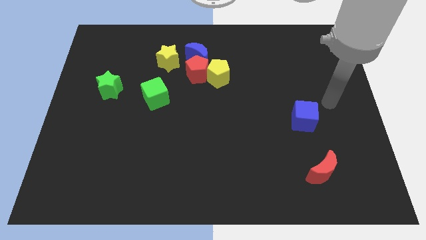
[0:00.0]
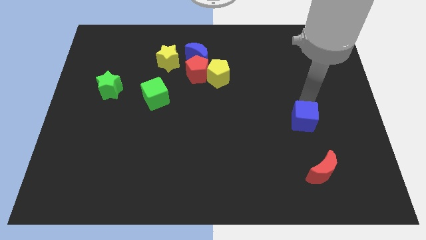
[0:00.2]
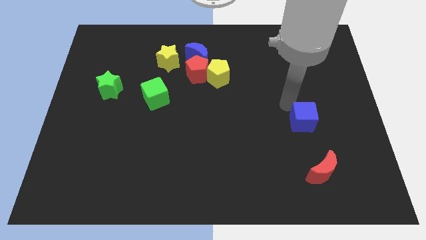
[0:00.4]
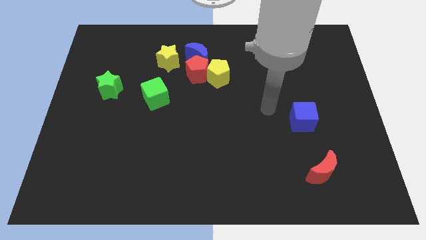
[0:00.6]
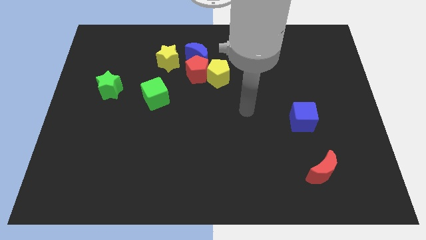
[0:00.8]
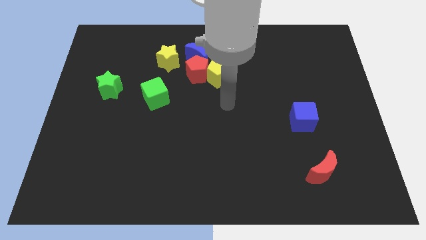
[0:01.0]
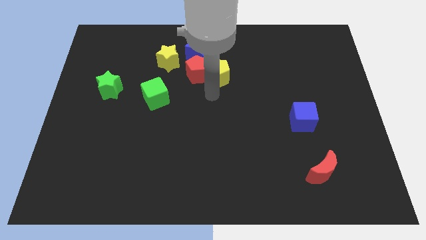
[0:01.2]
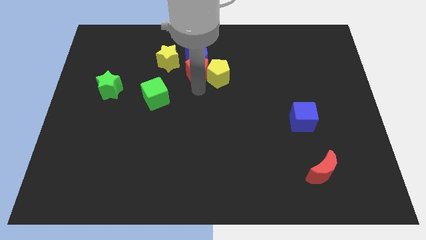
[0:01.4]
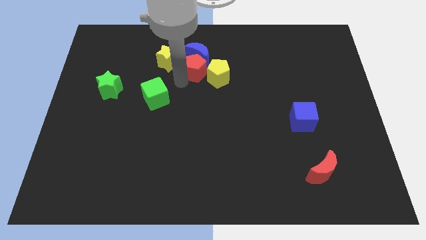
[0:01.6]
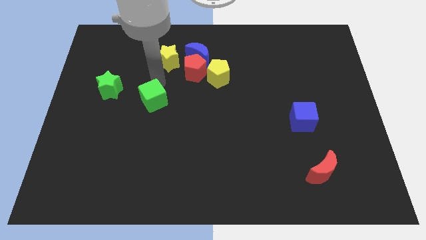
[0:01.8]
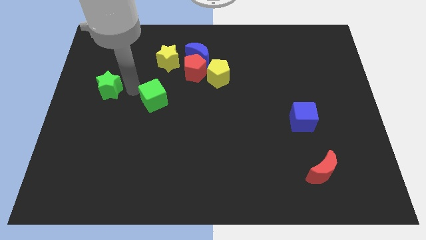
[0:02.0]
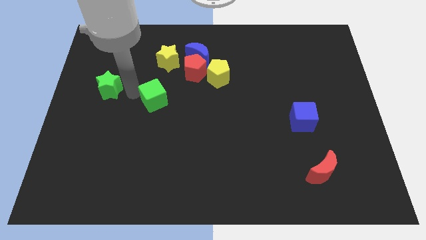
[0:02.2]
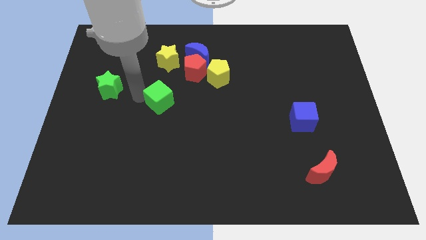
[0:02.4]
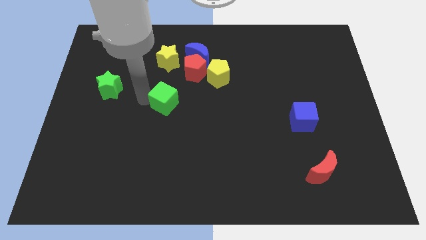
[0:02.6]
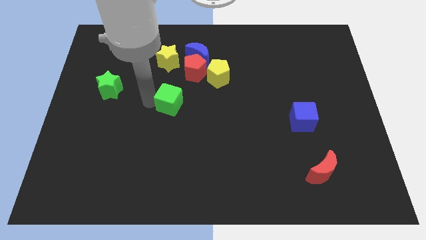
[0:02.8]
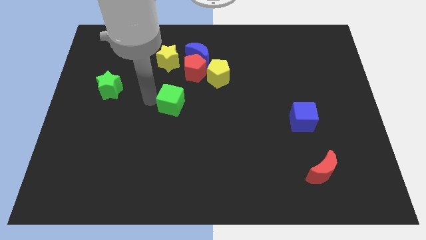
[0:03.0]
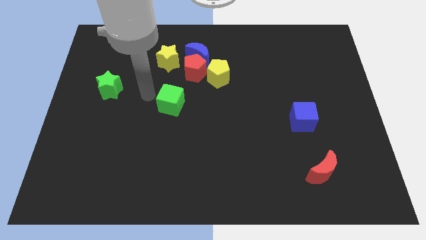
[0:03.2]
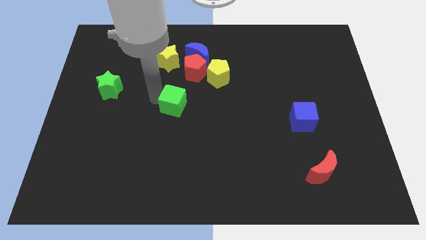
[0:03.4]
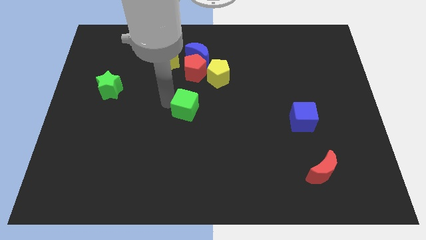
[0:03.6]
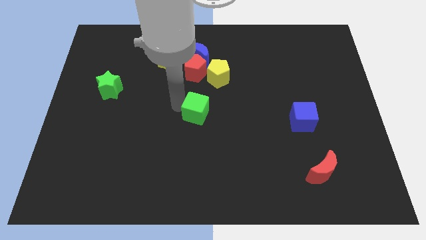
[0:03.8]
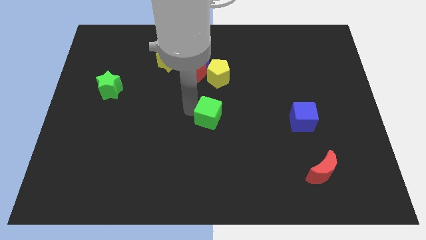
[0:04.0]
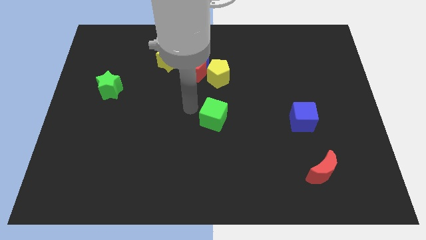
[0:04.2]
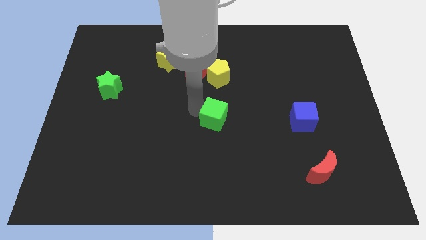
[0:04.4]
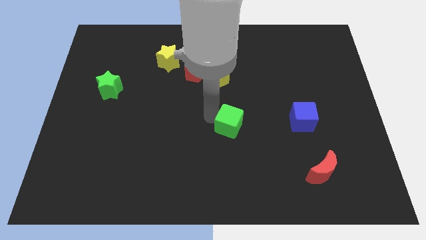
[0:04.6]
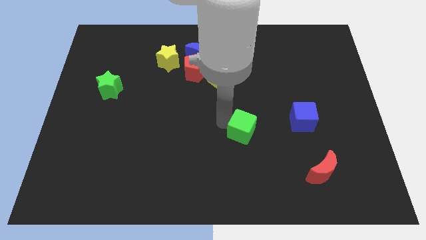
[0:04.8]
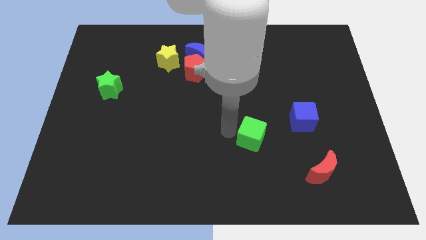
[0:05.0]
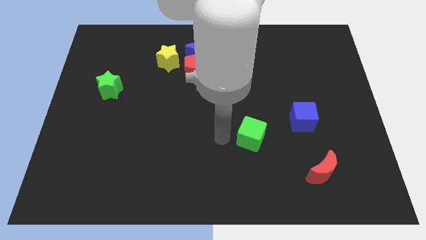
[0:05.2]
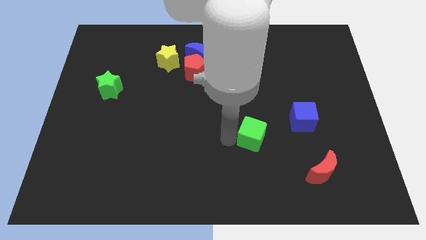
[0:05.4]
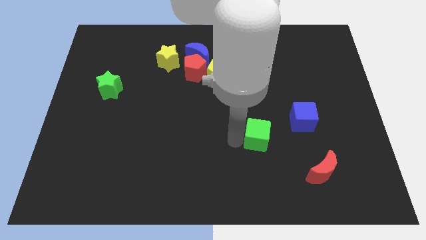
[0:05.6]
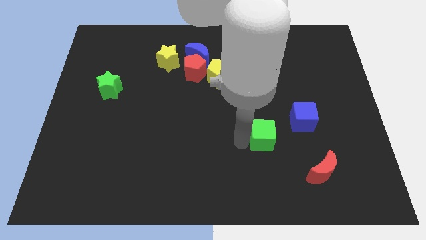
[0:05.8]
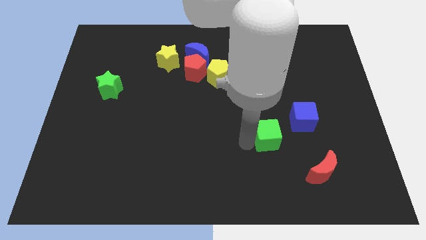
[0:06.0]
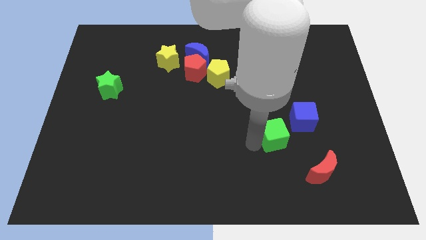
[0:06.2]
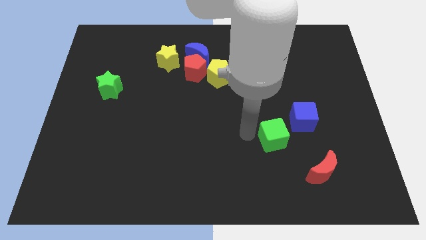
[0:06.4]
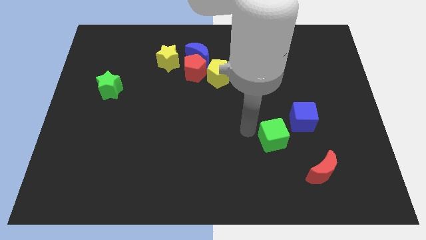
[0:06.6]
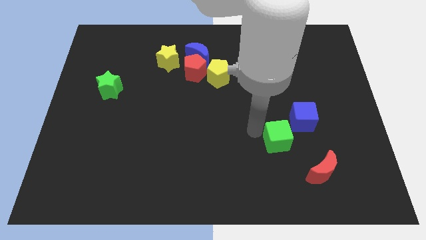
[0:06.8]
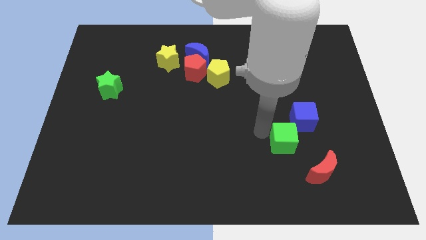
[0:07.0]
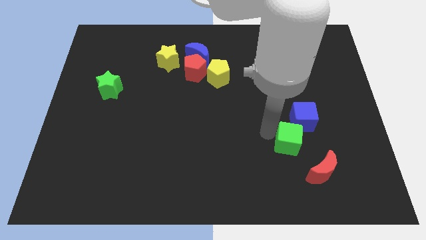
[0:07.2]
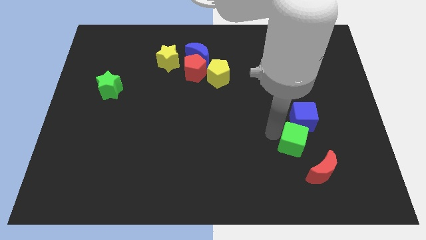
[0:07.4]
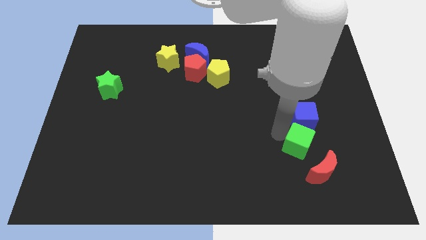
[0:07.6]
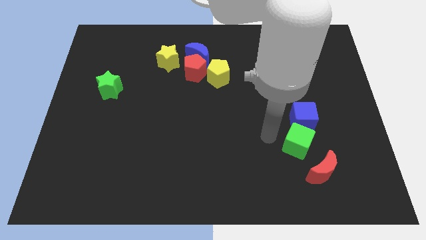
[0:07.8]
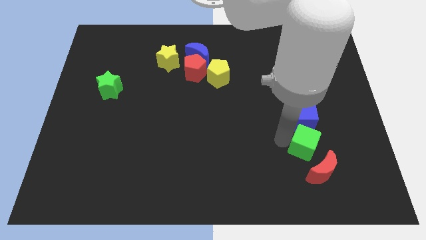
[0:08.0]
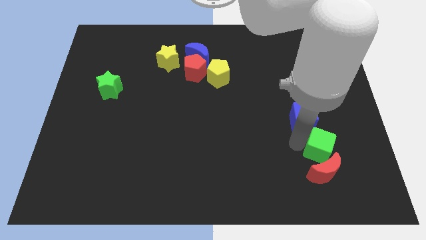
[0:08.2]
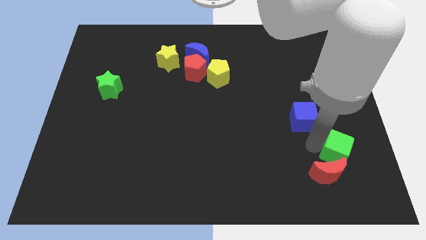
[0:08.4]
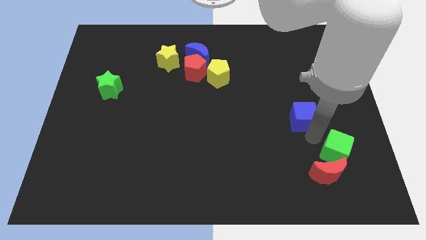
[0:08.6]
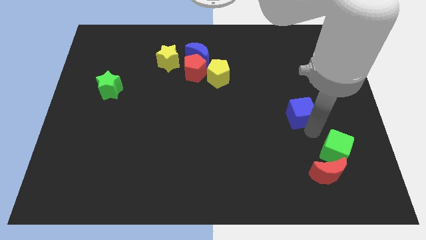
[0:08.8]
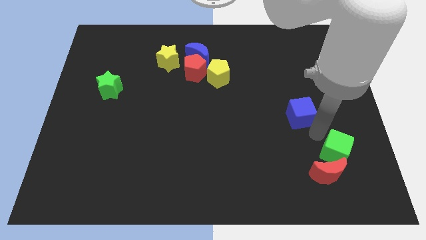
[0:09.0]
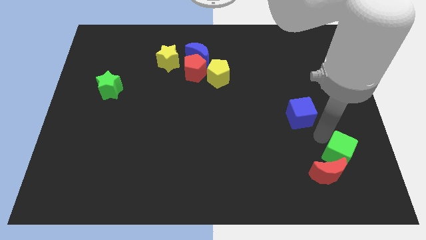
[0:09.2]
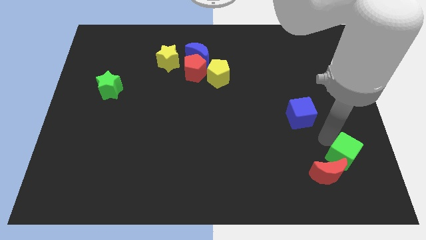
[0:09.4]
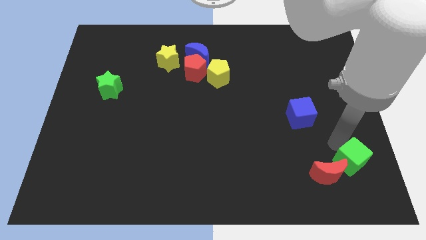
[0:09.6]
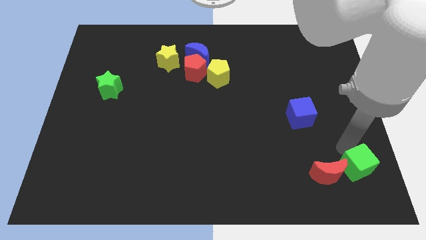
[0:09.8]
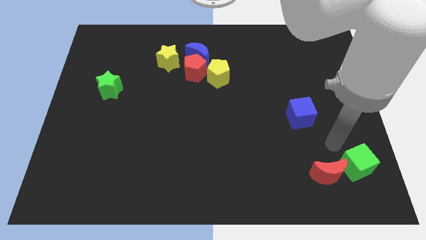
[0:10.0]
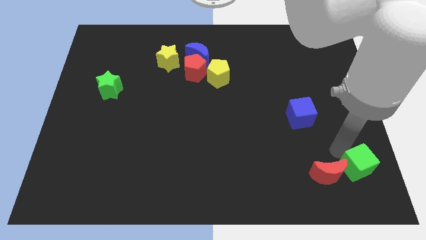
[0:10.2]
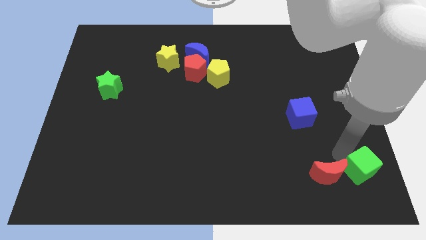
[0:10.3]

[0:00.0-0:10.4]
move the green cube to the bottom right corner

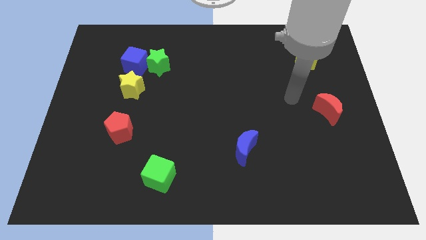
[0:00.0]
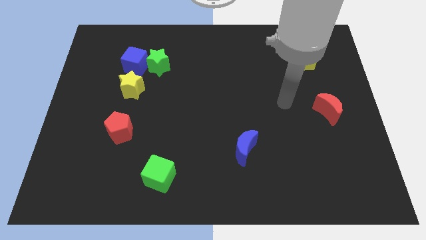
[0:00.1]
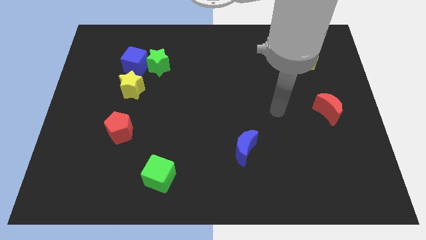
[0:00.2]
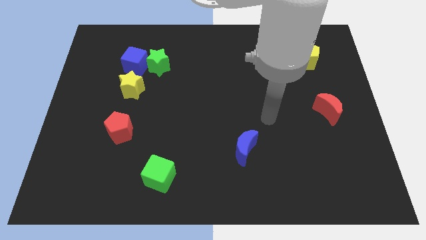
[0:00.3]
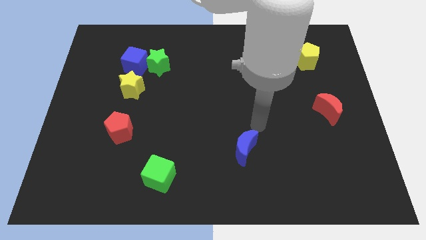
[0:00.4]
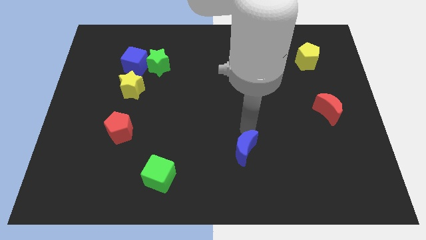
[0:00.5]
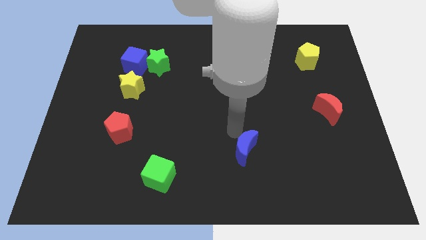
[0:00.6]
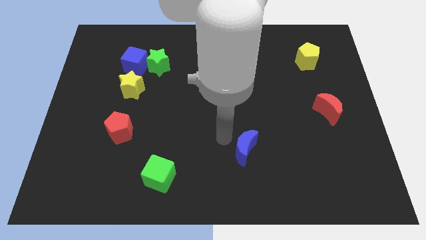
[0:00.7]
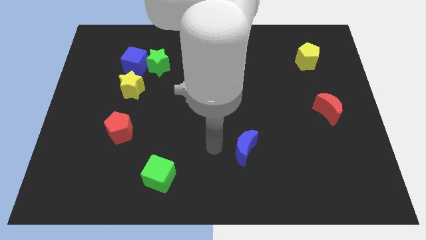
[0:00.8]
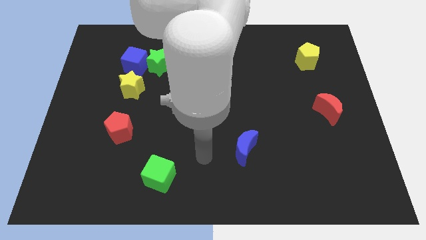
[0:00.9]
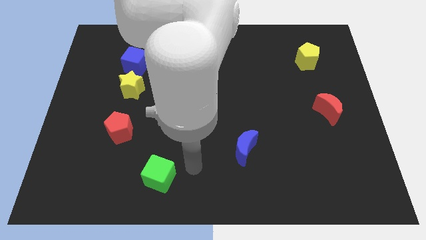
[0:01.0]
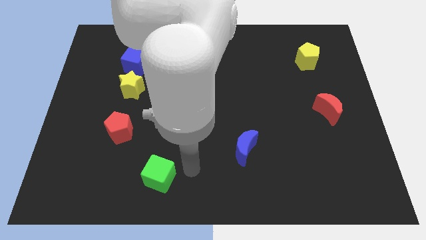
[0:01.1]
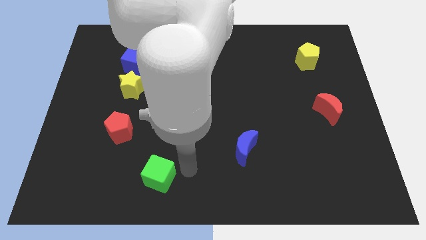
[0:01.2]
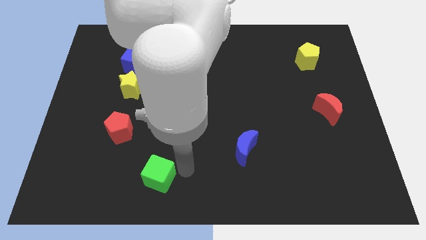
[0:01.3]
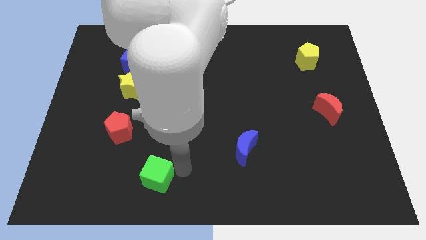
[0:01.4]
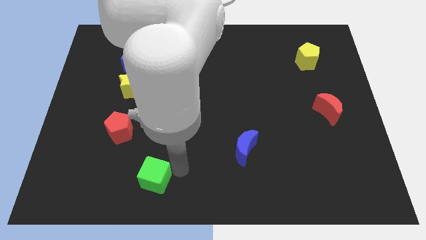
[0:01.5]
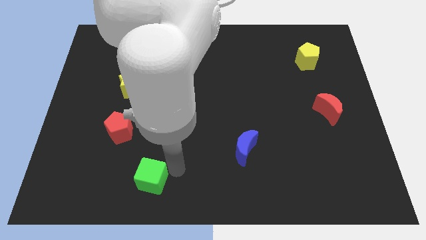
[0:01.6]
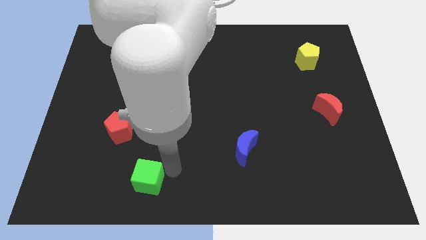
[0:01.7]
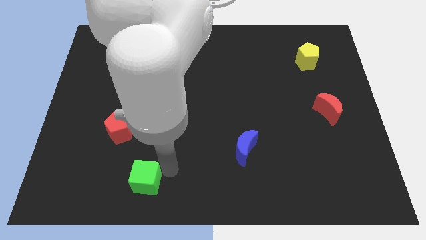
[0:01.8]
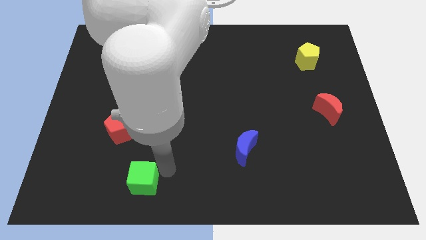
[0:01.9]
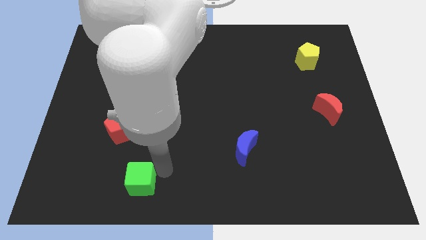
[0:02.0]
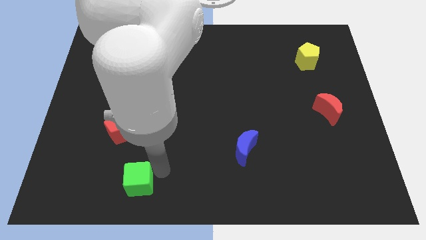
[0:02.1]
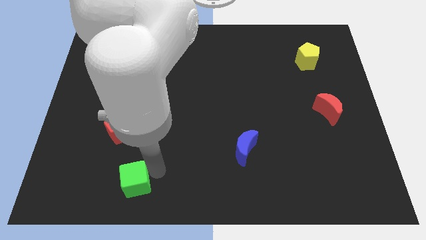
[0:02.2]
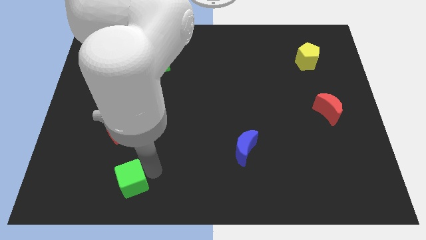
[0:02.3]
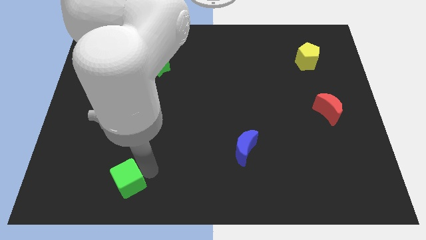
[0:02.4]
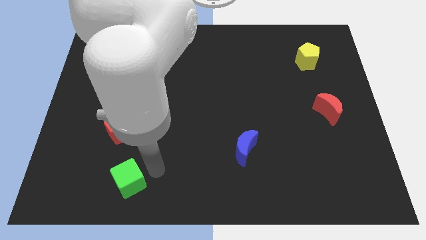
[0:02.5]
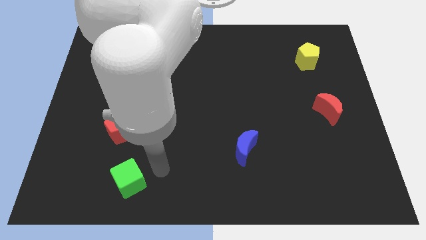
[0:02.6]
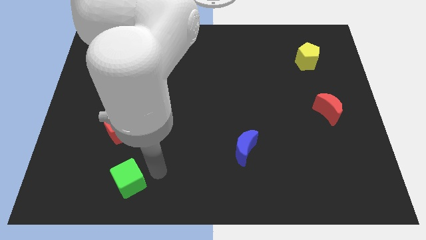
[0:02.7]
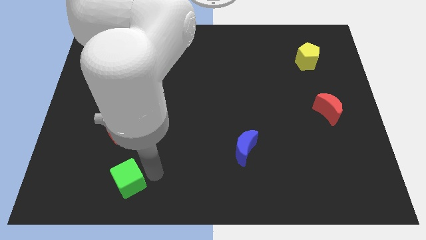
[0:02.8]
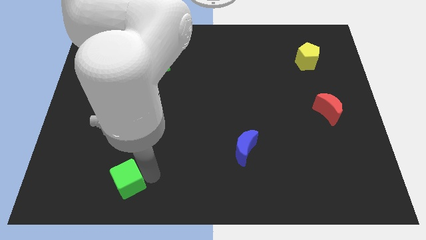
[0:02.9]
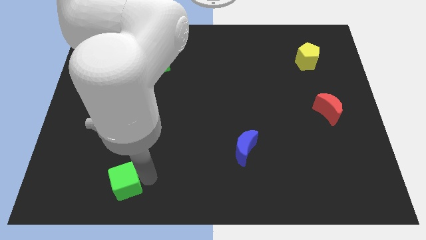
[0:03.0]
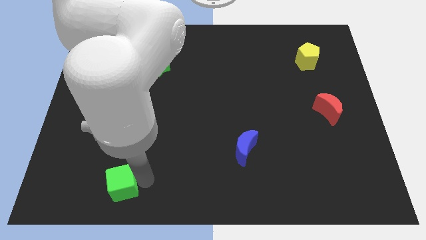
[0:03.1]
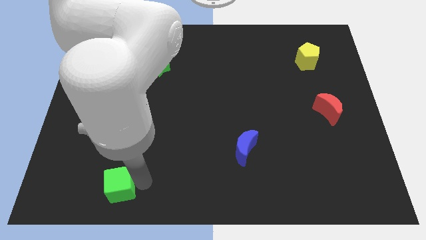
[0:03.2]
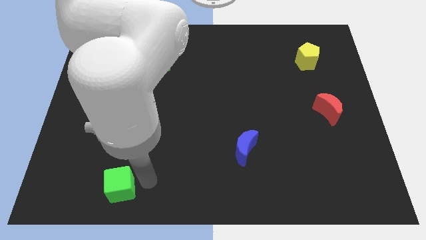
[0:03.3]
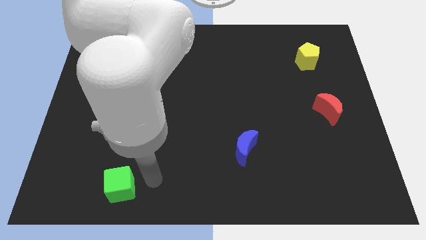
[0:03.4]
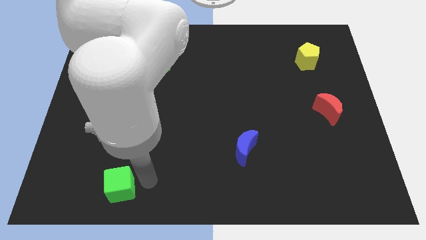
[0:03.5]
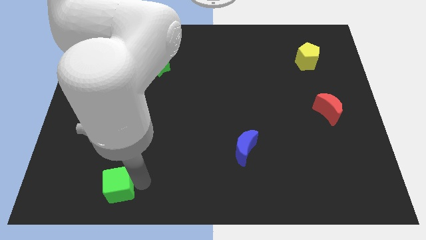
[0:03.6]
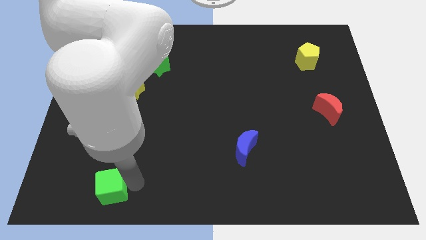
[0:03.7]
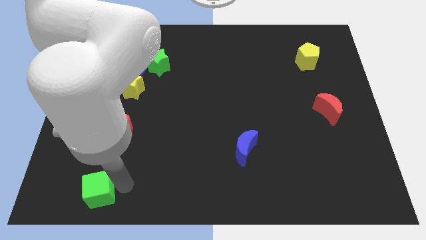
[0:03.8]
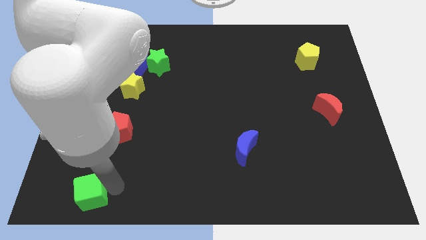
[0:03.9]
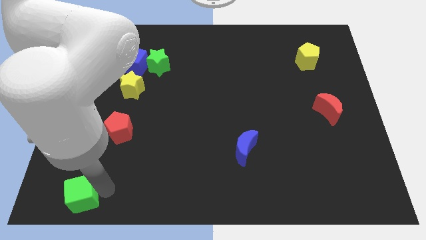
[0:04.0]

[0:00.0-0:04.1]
move the green cube to the bottom left corner
